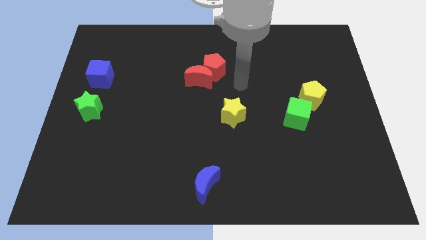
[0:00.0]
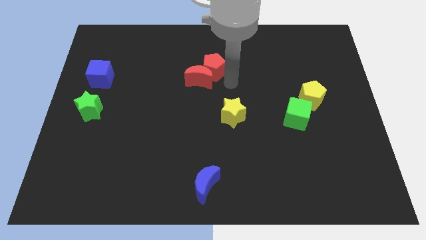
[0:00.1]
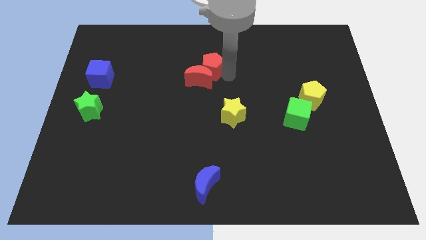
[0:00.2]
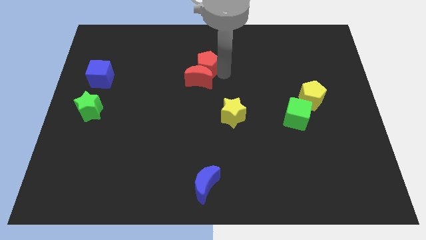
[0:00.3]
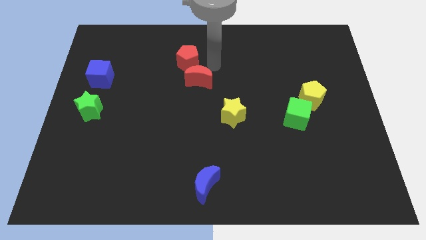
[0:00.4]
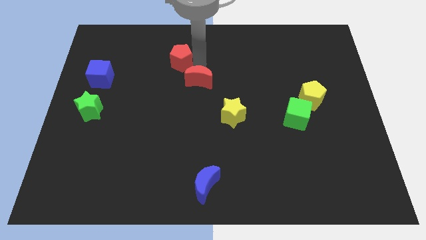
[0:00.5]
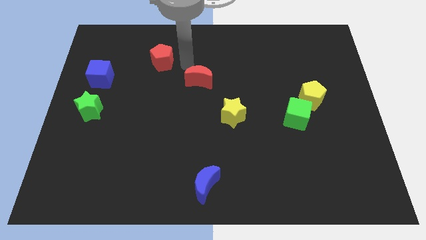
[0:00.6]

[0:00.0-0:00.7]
pull the red moon apart from the red pentagon

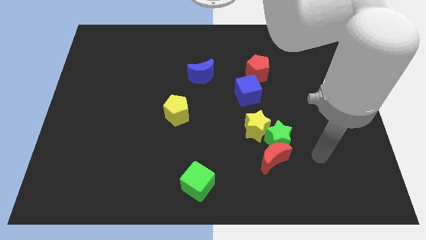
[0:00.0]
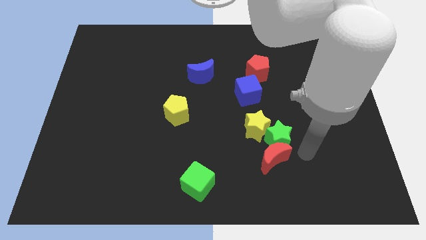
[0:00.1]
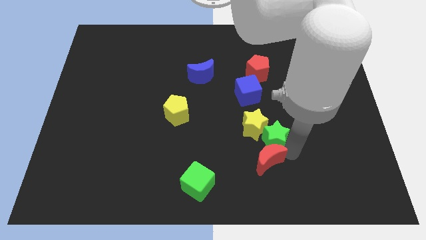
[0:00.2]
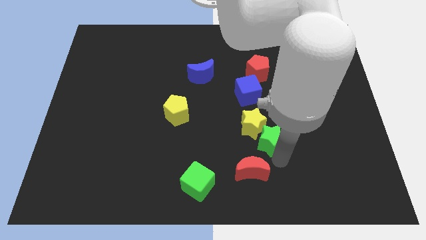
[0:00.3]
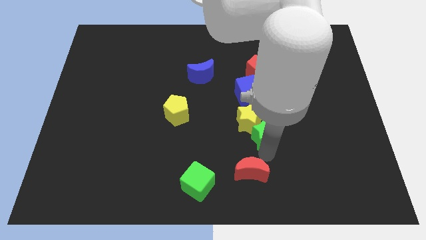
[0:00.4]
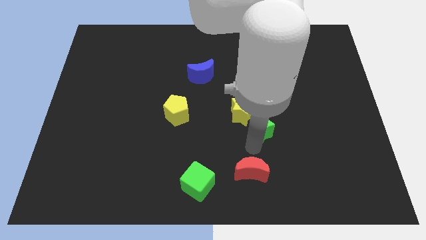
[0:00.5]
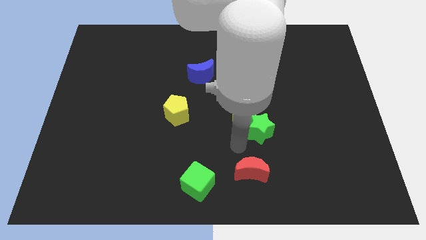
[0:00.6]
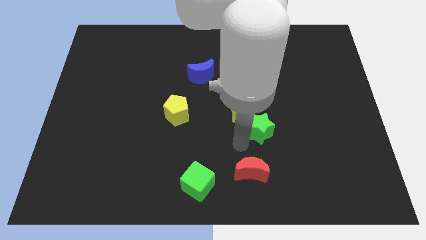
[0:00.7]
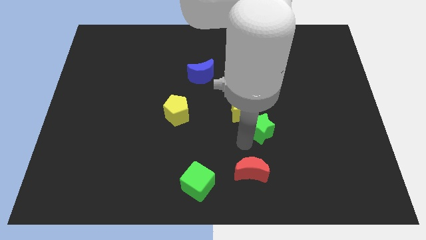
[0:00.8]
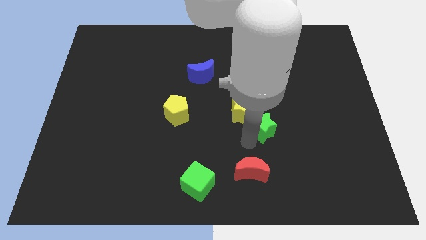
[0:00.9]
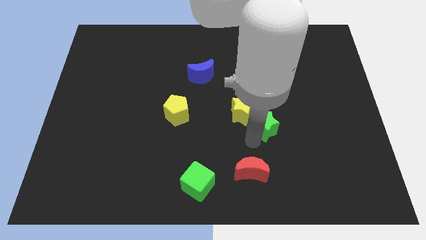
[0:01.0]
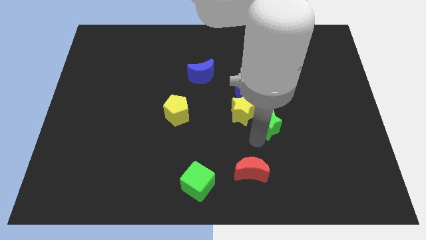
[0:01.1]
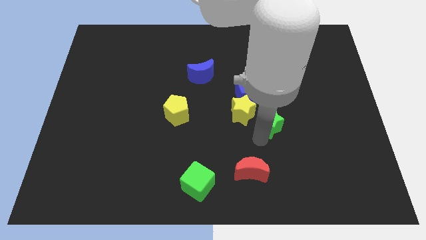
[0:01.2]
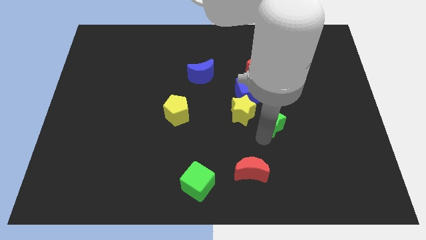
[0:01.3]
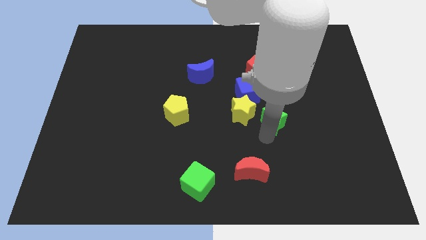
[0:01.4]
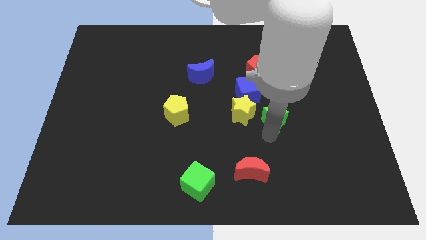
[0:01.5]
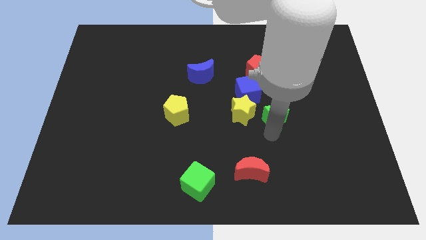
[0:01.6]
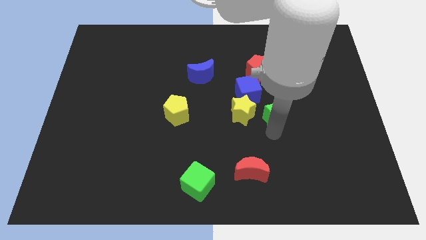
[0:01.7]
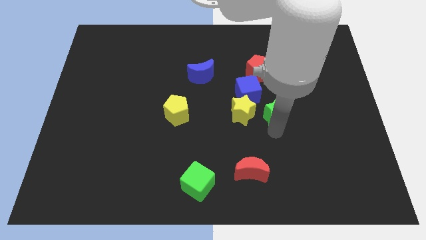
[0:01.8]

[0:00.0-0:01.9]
pull the green star apart from the red moon and yellow star

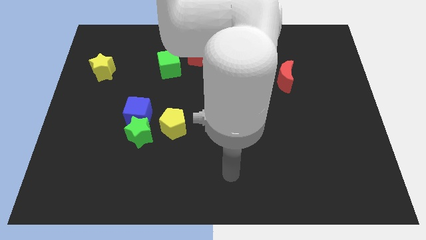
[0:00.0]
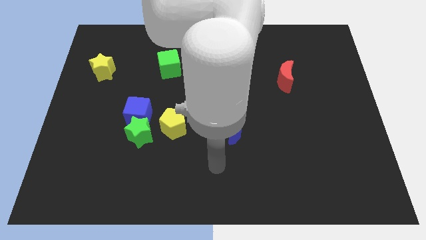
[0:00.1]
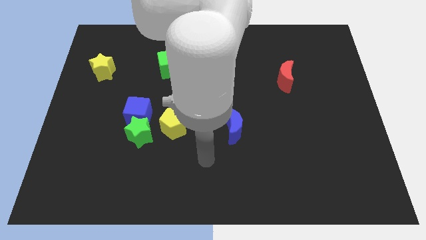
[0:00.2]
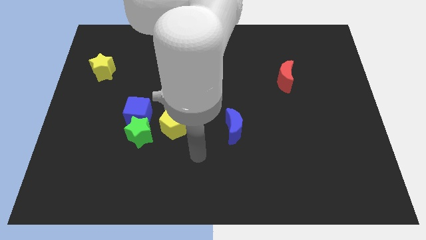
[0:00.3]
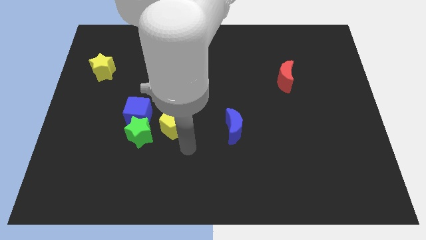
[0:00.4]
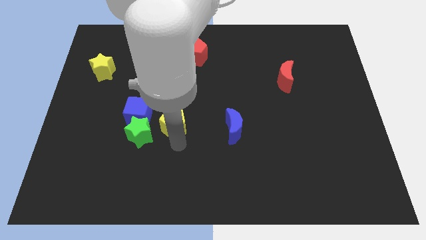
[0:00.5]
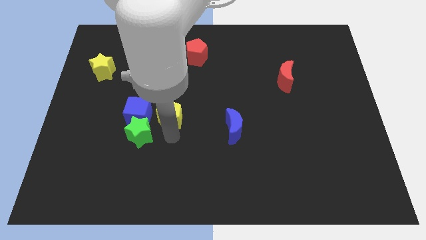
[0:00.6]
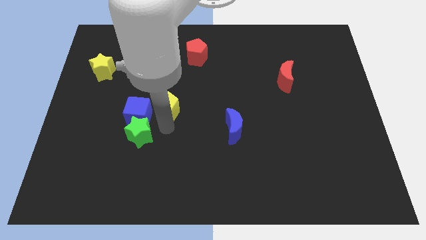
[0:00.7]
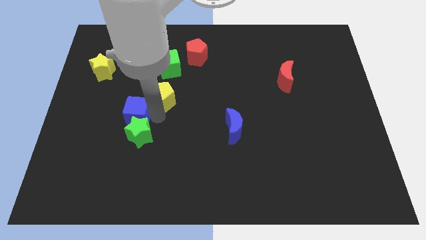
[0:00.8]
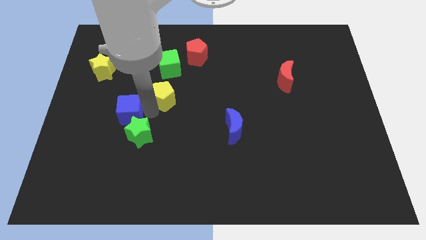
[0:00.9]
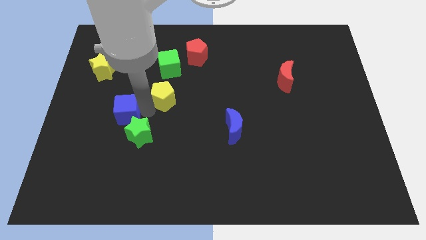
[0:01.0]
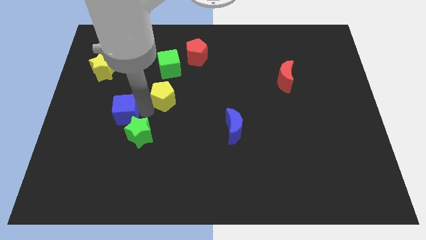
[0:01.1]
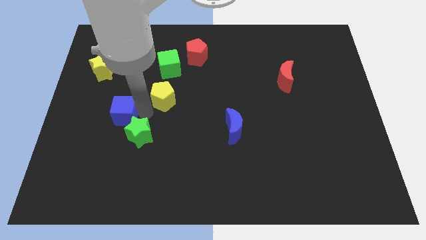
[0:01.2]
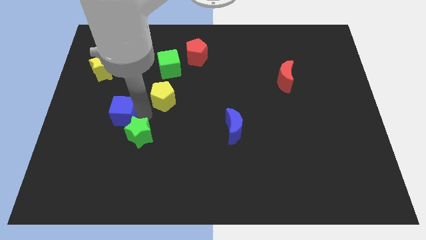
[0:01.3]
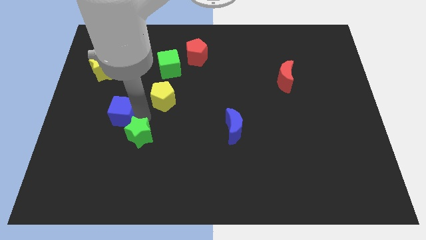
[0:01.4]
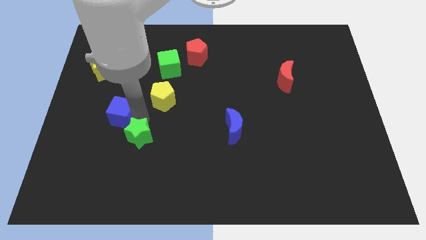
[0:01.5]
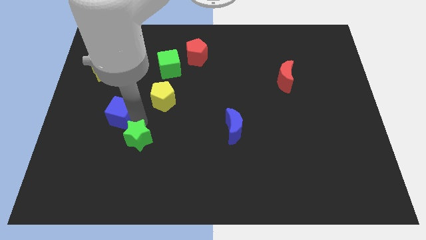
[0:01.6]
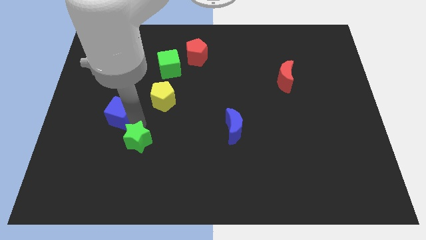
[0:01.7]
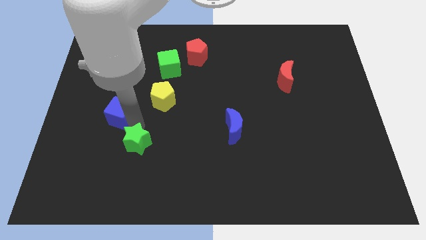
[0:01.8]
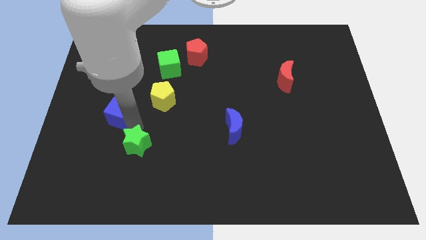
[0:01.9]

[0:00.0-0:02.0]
move the green star away from the blue cube and yellow pentagon

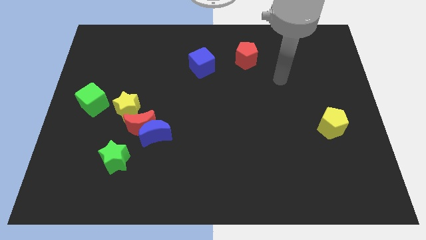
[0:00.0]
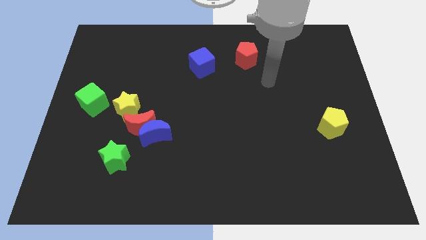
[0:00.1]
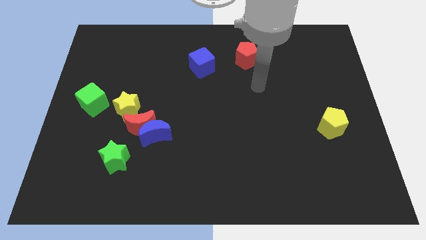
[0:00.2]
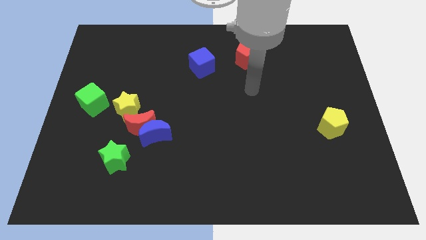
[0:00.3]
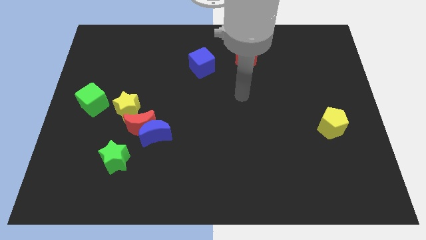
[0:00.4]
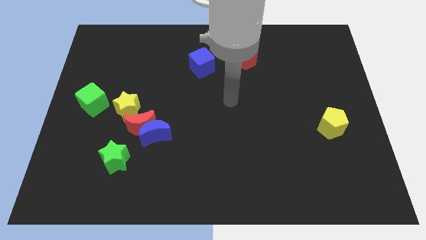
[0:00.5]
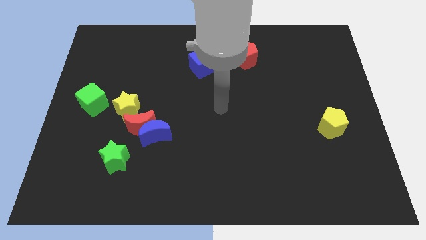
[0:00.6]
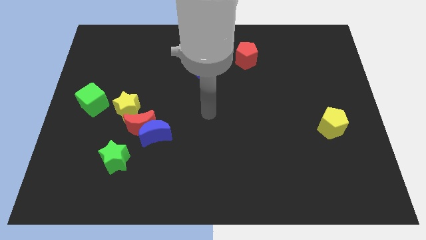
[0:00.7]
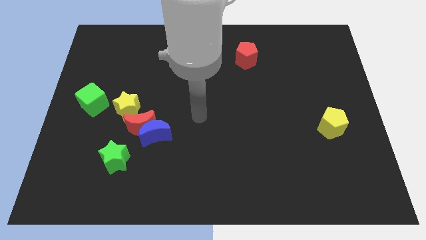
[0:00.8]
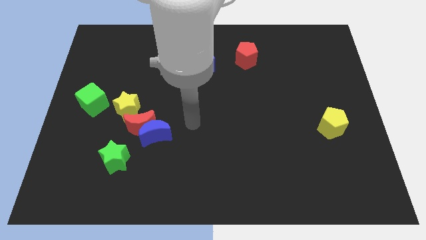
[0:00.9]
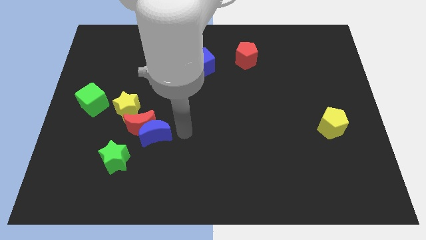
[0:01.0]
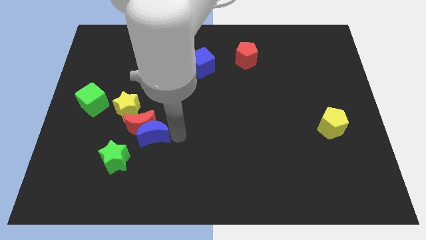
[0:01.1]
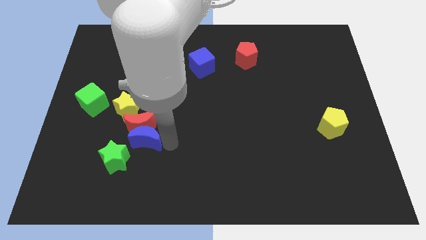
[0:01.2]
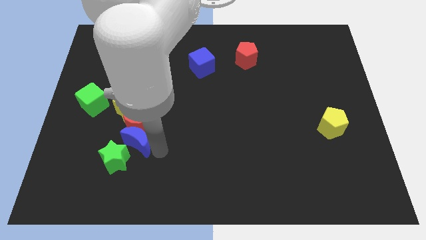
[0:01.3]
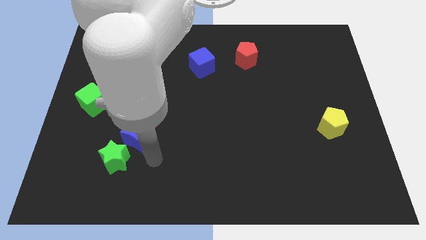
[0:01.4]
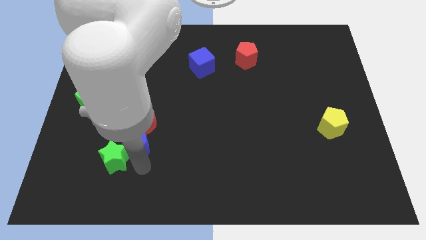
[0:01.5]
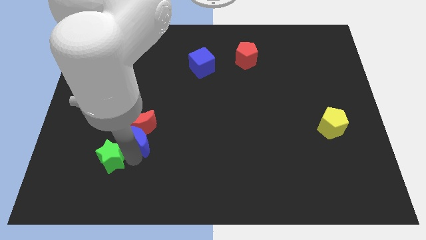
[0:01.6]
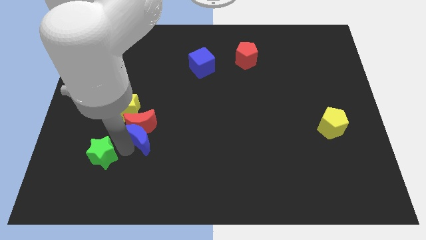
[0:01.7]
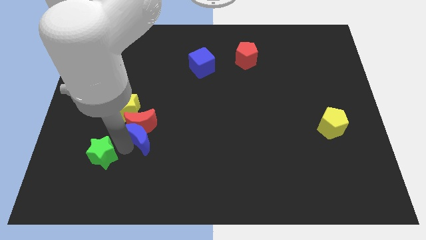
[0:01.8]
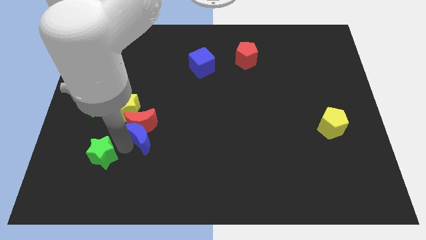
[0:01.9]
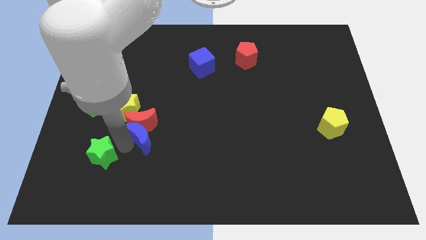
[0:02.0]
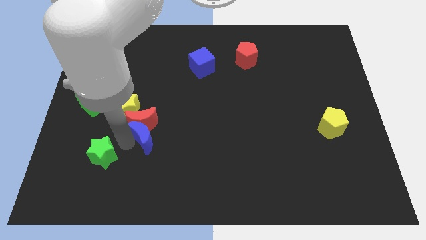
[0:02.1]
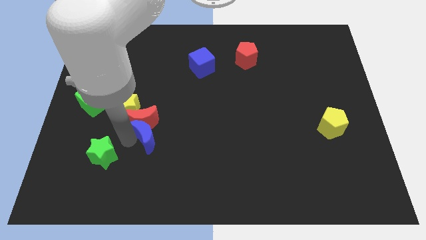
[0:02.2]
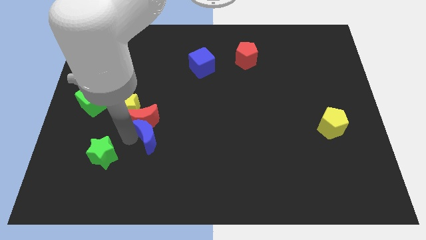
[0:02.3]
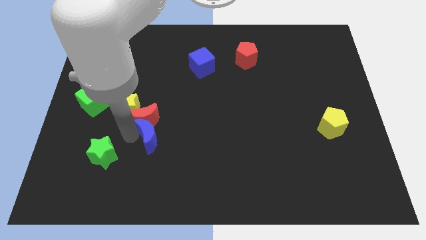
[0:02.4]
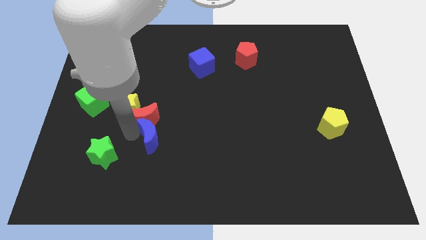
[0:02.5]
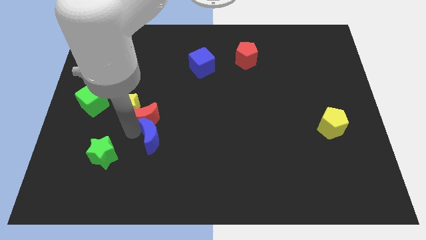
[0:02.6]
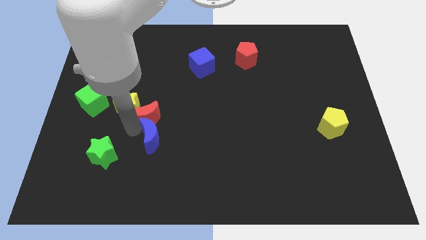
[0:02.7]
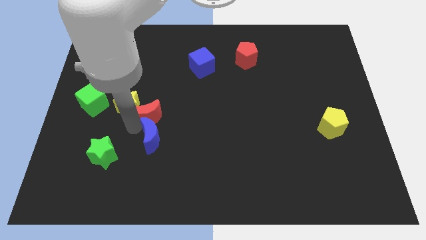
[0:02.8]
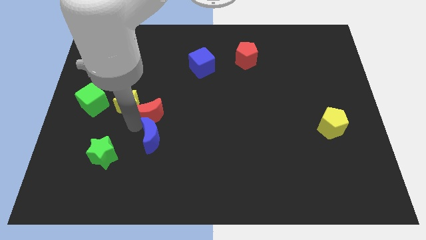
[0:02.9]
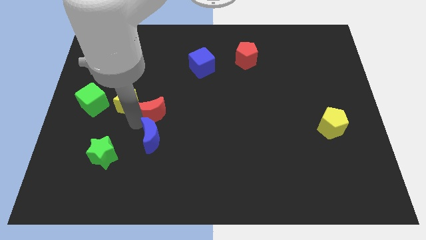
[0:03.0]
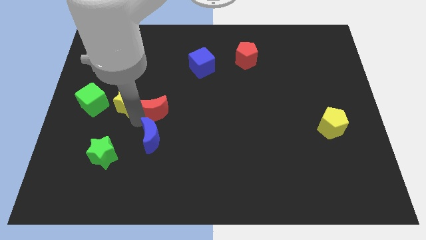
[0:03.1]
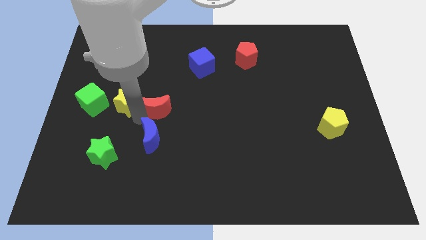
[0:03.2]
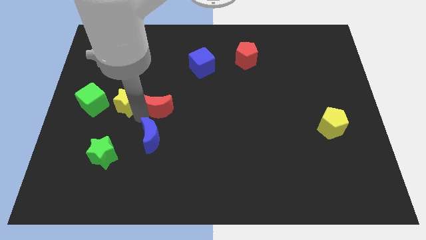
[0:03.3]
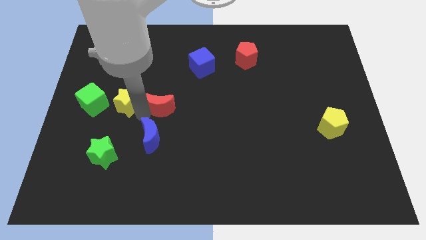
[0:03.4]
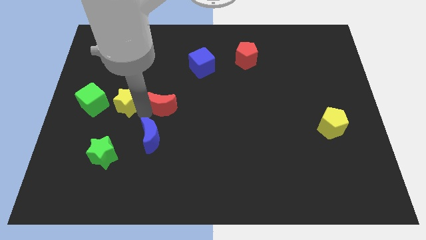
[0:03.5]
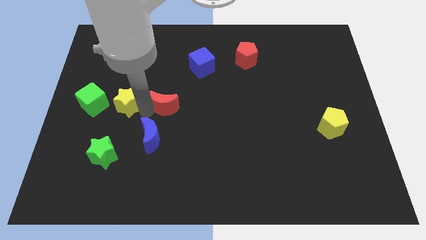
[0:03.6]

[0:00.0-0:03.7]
move the red moon away from the blue moon, yellow star, and green star

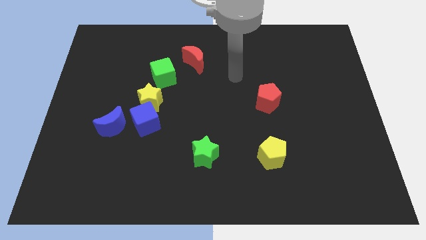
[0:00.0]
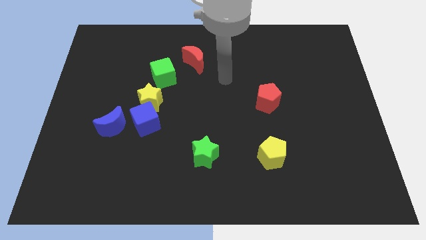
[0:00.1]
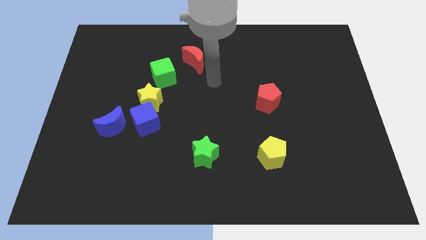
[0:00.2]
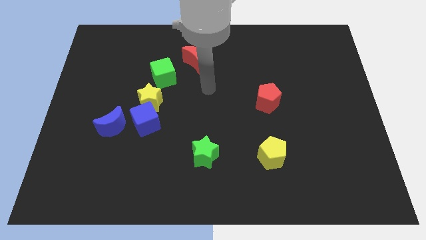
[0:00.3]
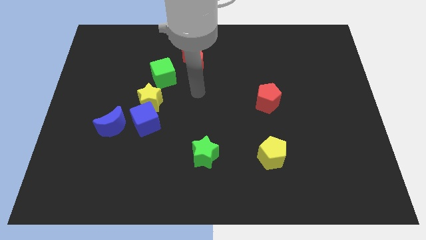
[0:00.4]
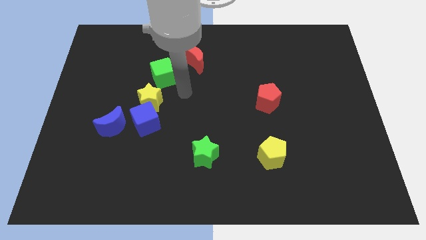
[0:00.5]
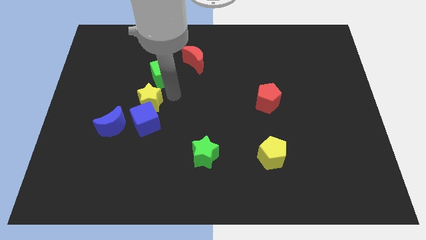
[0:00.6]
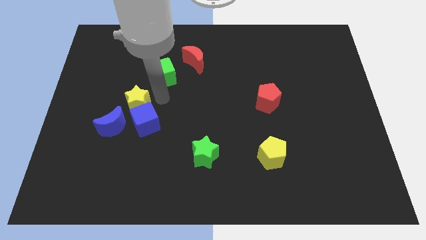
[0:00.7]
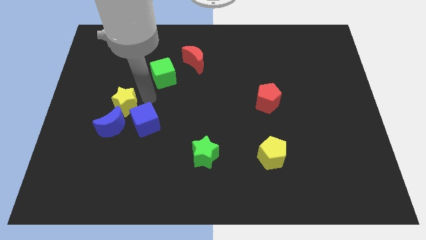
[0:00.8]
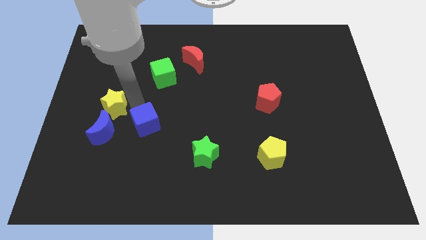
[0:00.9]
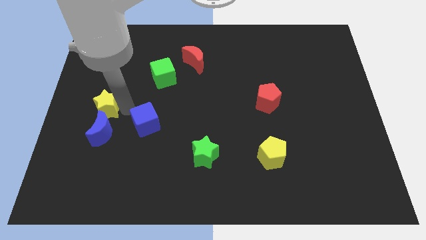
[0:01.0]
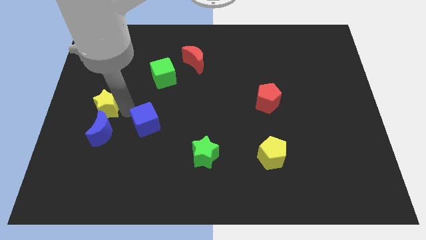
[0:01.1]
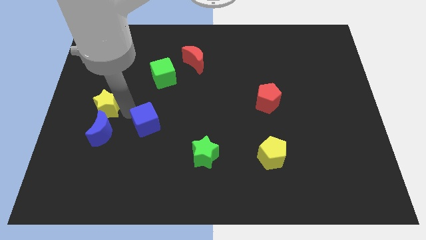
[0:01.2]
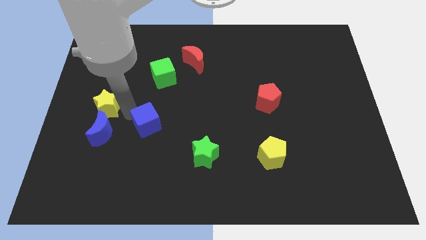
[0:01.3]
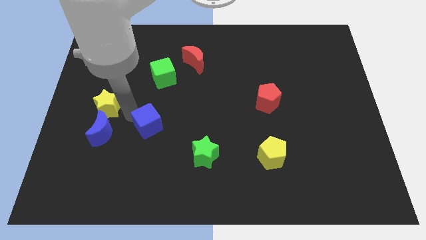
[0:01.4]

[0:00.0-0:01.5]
move the blue cube away from the yellow star and blue moon
